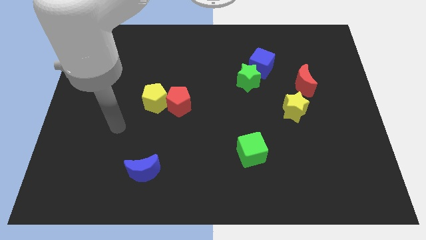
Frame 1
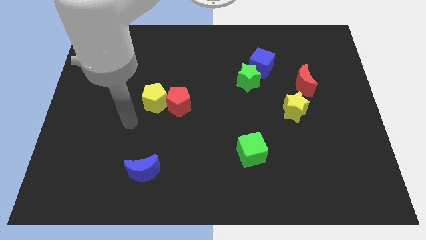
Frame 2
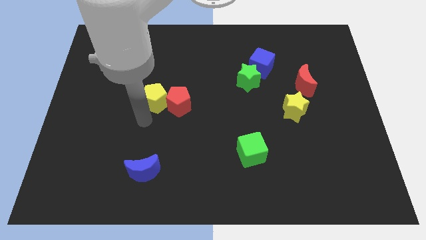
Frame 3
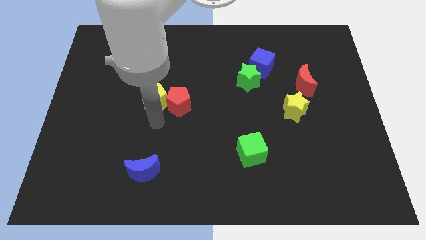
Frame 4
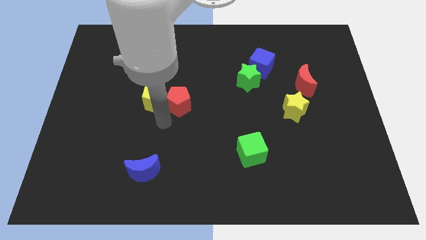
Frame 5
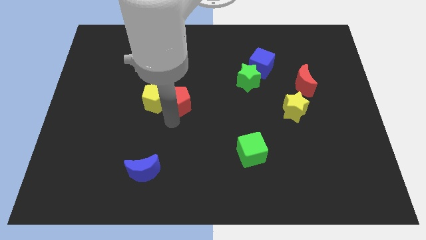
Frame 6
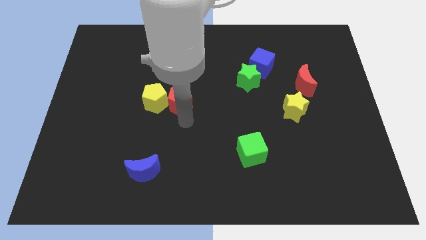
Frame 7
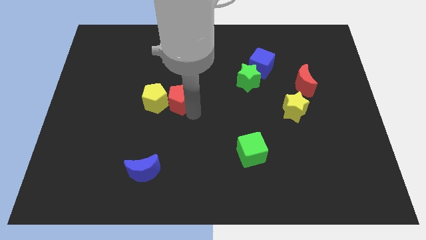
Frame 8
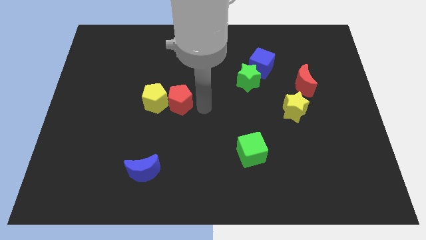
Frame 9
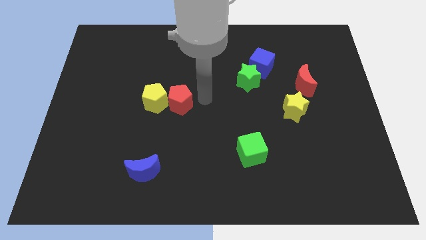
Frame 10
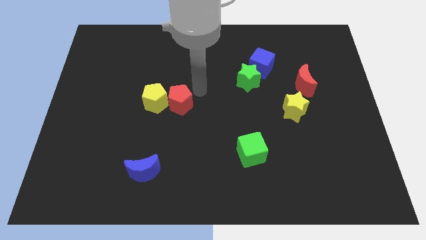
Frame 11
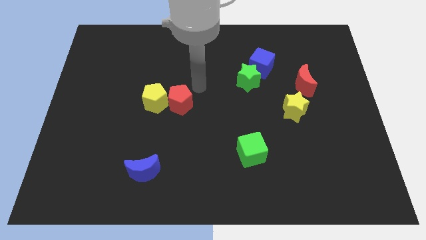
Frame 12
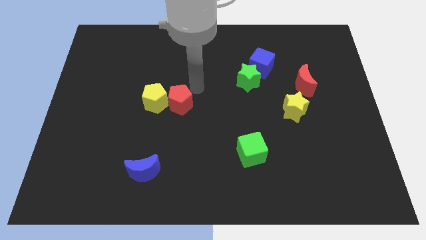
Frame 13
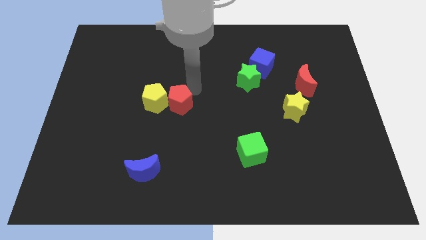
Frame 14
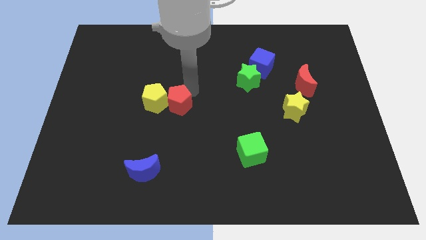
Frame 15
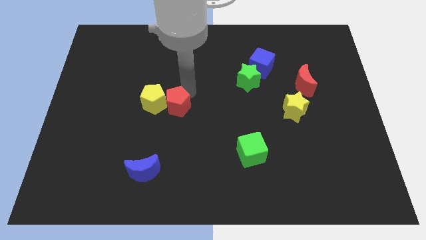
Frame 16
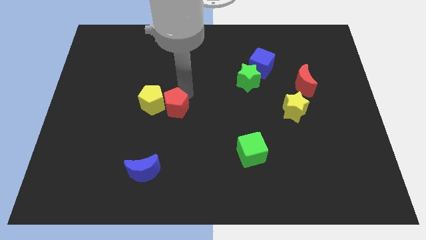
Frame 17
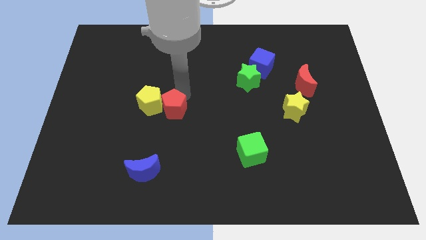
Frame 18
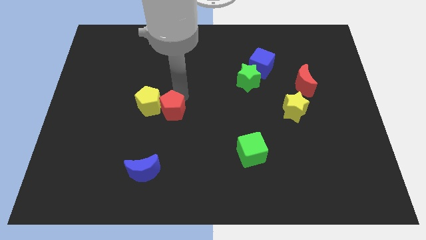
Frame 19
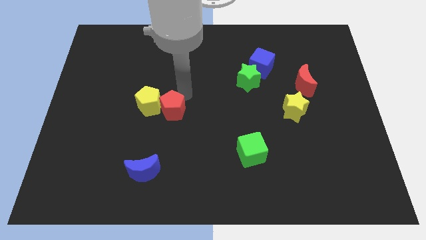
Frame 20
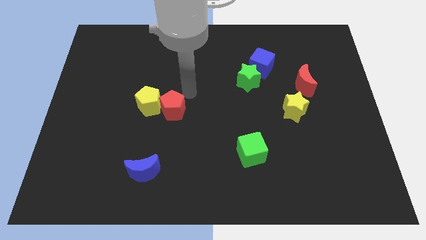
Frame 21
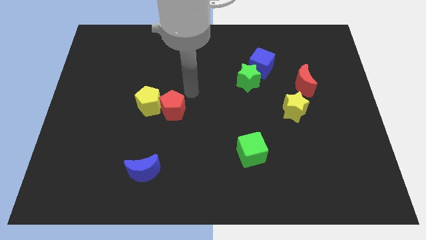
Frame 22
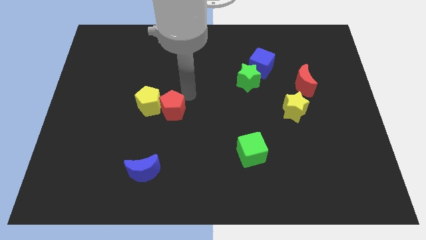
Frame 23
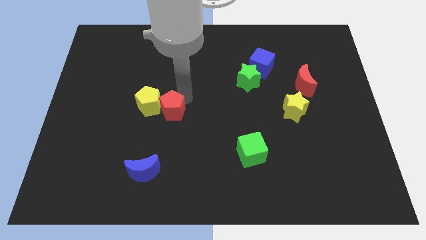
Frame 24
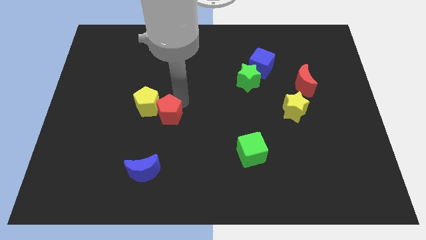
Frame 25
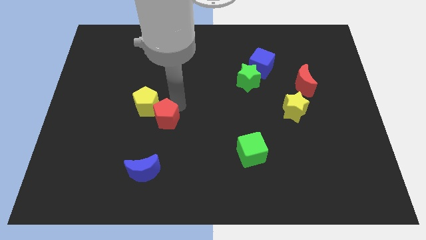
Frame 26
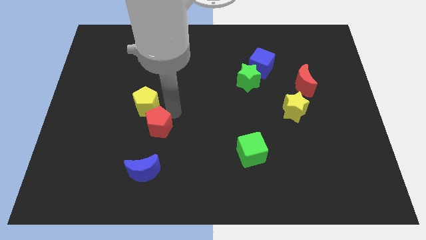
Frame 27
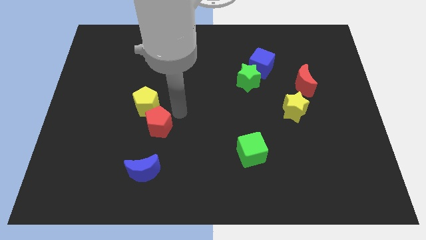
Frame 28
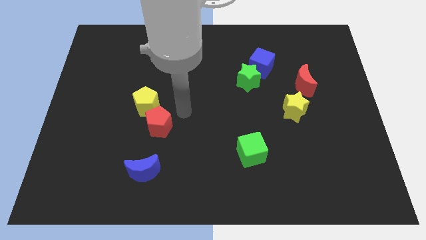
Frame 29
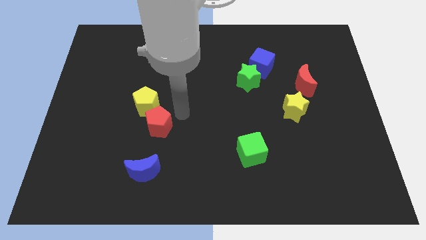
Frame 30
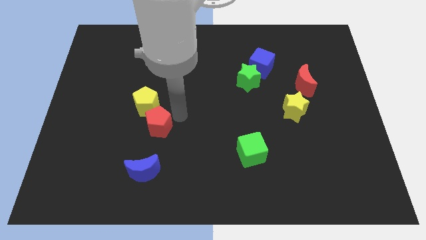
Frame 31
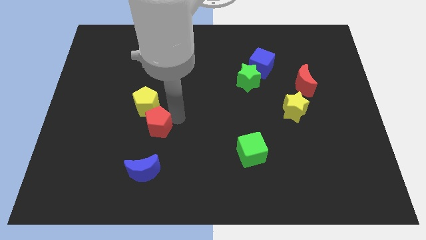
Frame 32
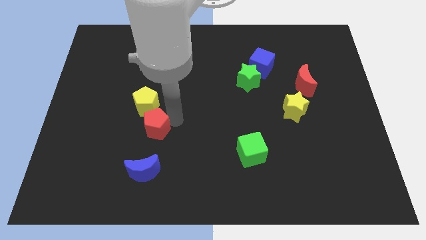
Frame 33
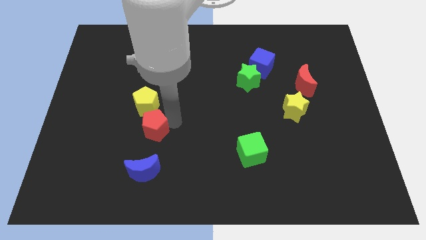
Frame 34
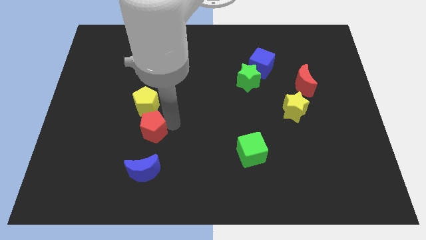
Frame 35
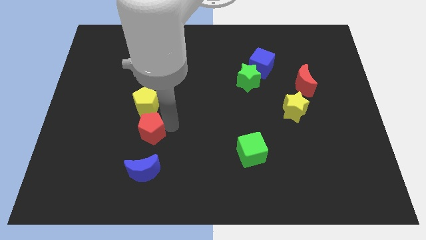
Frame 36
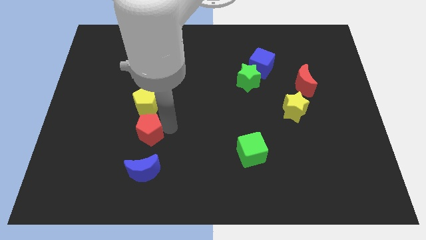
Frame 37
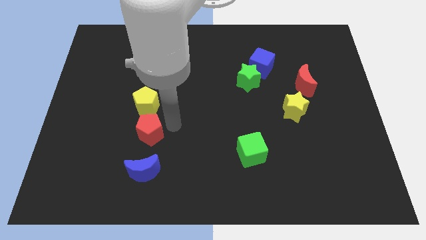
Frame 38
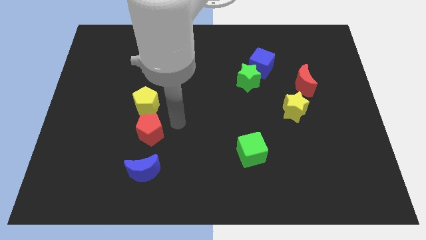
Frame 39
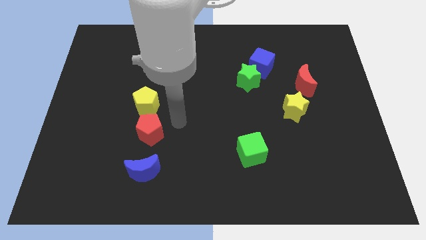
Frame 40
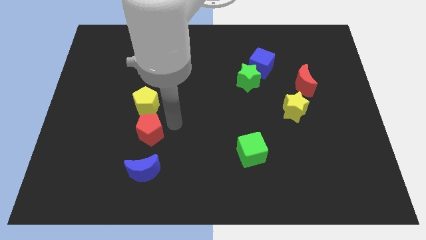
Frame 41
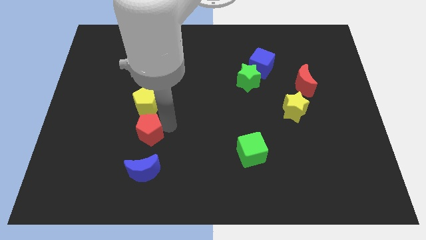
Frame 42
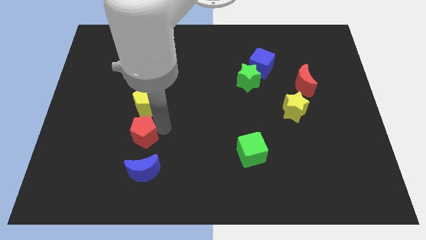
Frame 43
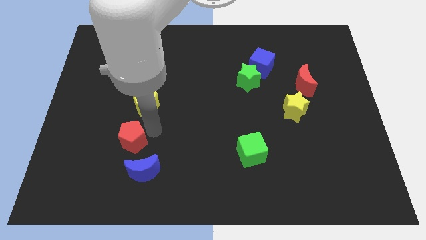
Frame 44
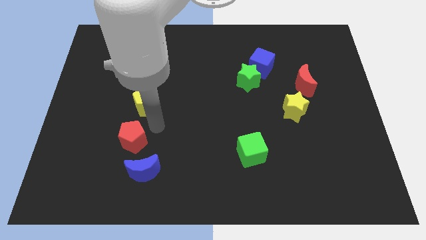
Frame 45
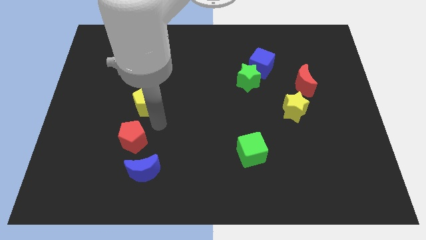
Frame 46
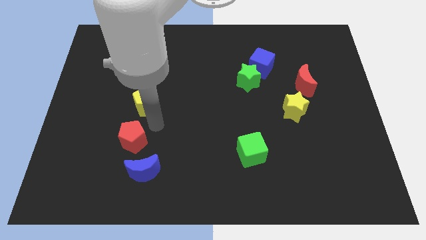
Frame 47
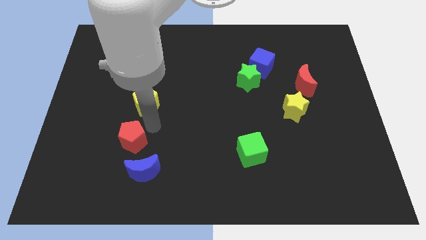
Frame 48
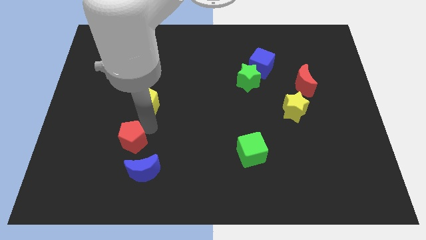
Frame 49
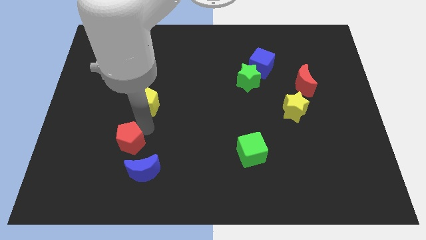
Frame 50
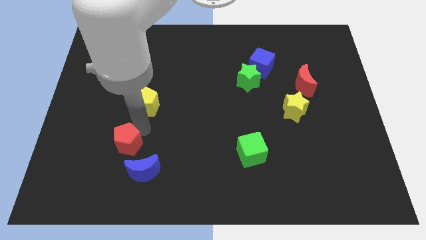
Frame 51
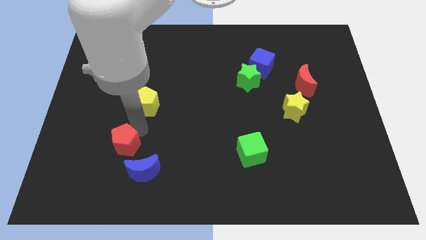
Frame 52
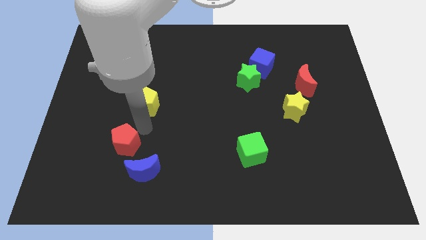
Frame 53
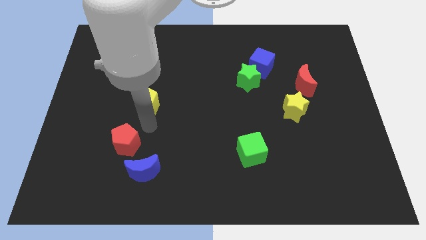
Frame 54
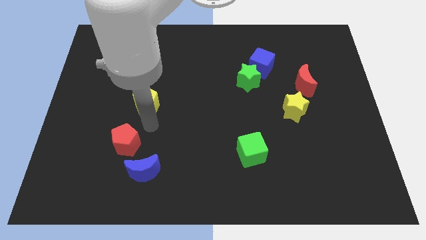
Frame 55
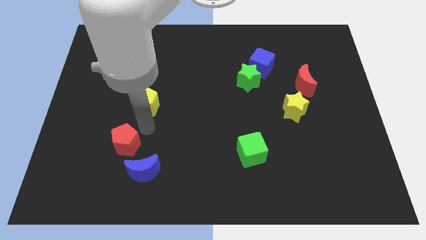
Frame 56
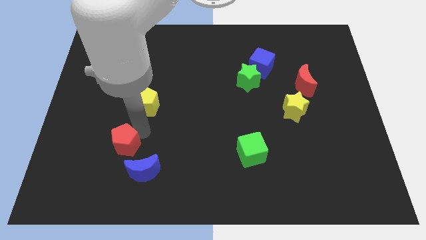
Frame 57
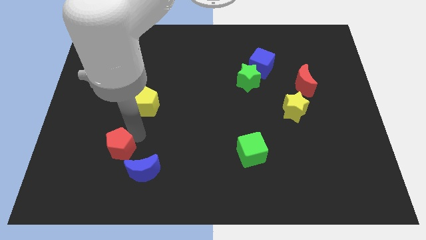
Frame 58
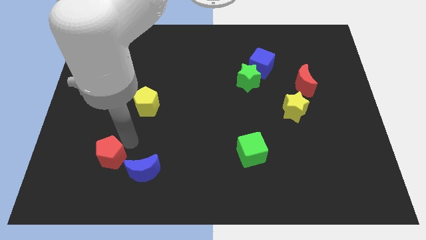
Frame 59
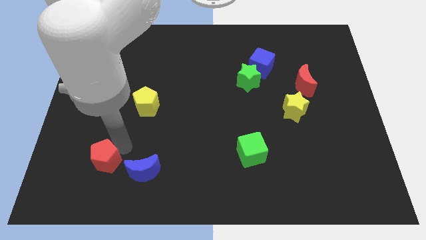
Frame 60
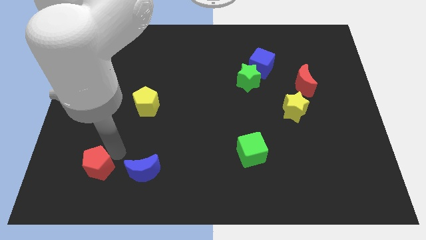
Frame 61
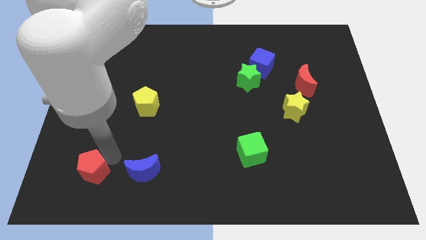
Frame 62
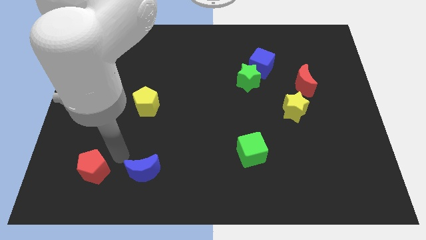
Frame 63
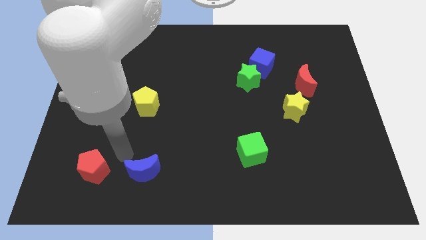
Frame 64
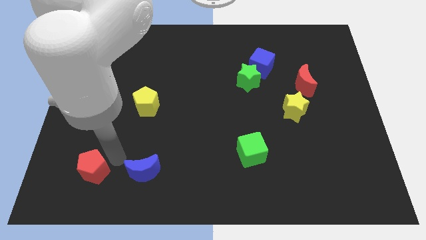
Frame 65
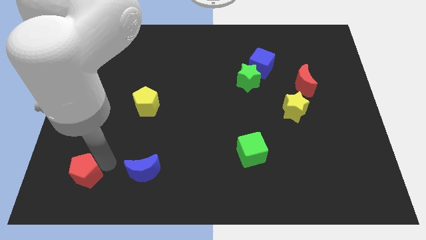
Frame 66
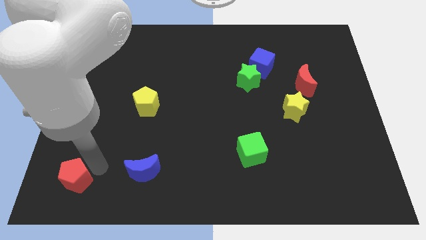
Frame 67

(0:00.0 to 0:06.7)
move the red pentagon to the bottom left

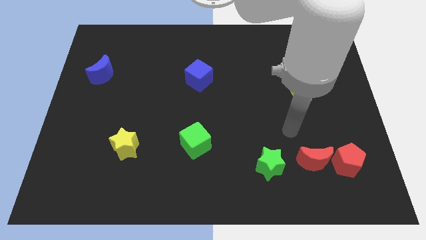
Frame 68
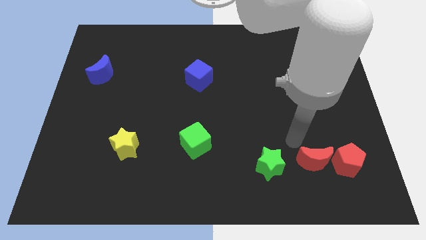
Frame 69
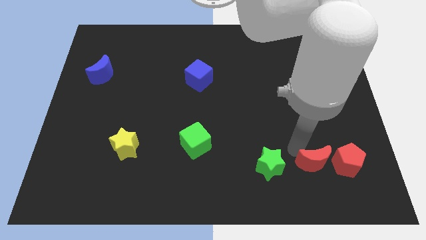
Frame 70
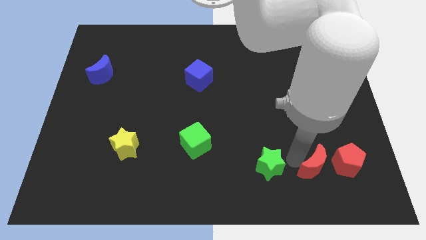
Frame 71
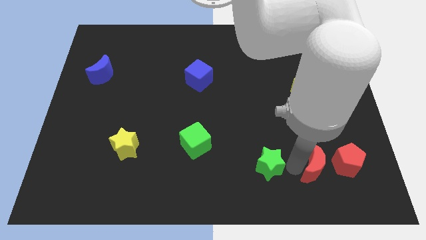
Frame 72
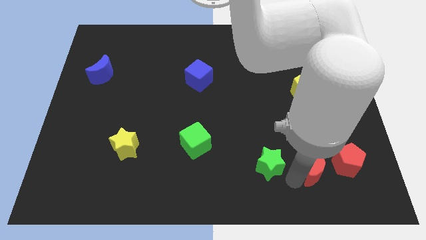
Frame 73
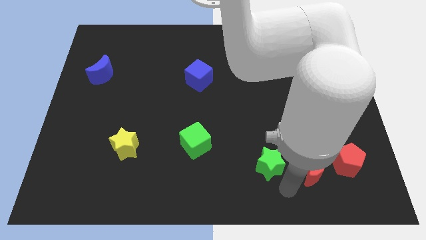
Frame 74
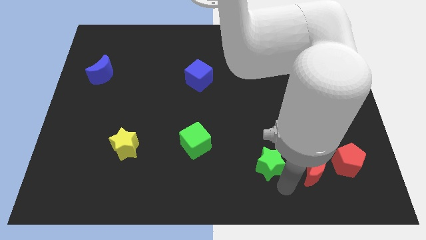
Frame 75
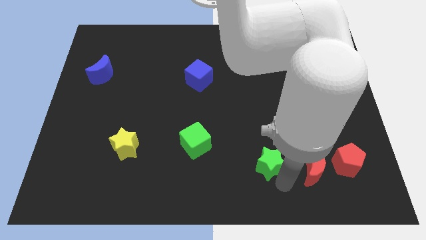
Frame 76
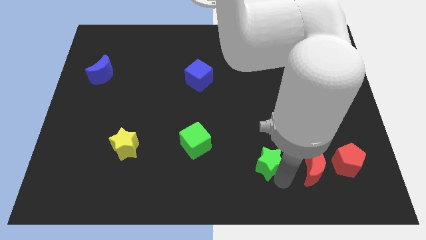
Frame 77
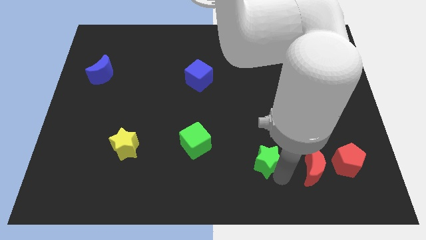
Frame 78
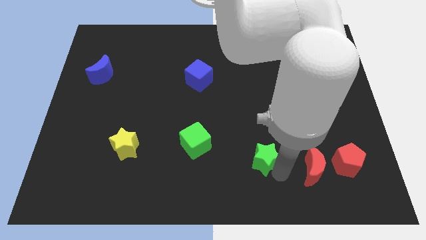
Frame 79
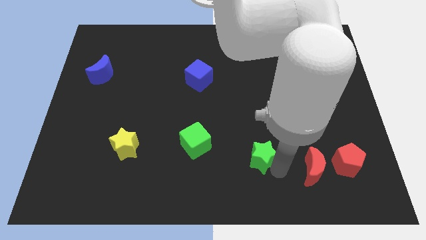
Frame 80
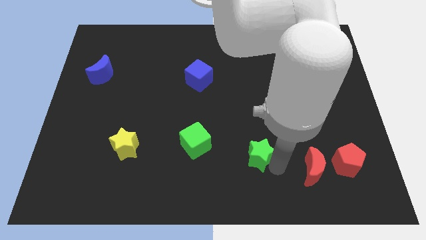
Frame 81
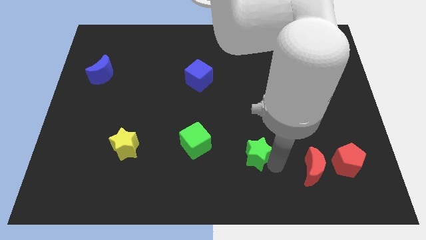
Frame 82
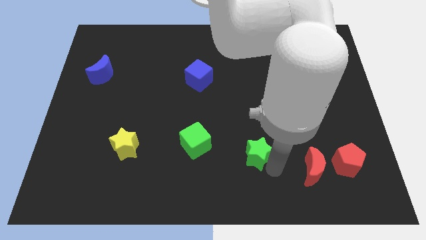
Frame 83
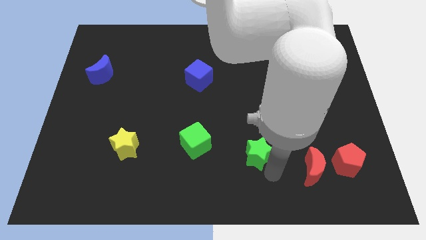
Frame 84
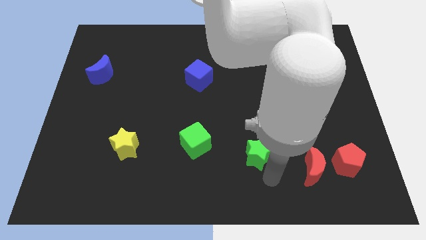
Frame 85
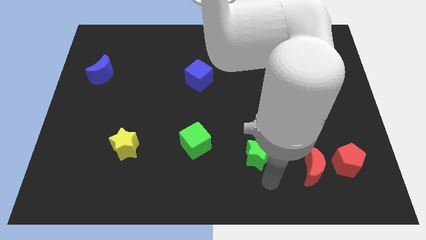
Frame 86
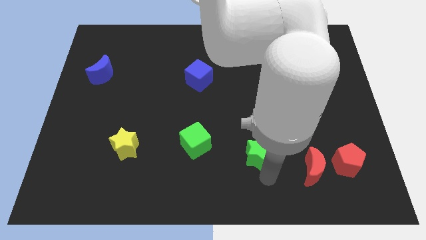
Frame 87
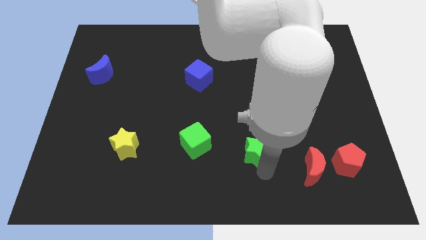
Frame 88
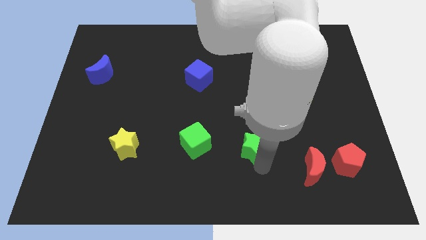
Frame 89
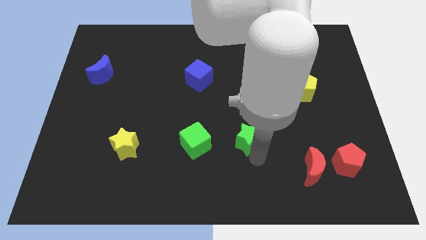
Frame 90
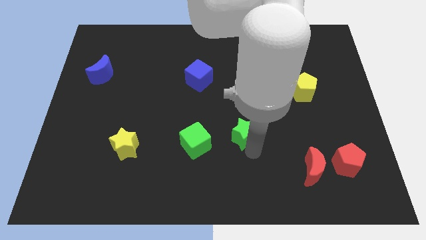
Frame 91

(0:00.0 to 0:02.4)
put the green star to the middle
